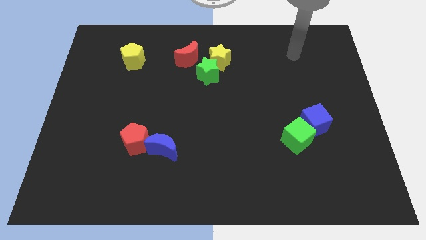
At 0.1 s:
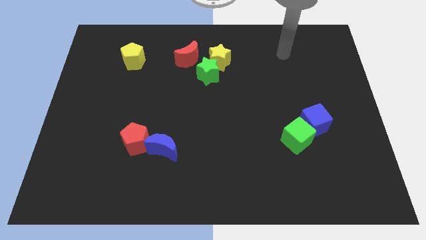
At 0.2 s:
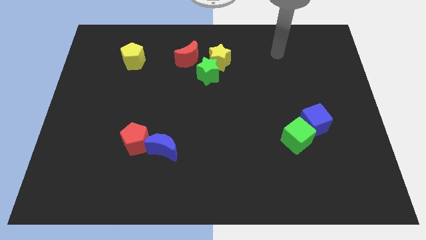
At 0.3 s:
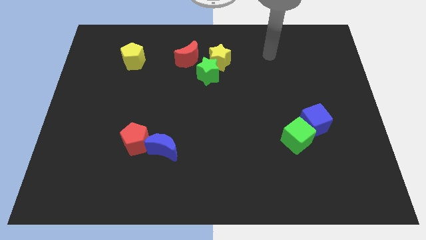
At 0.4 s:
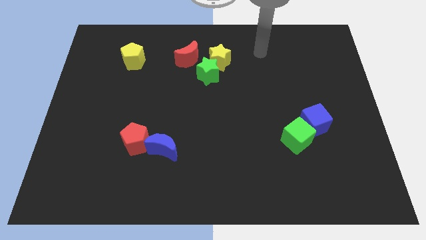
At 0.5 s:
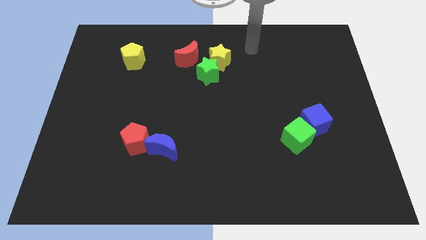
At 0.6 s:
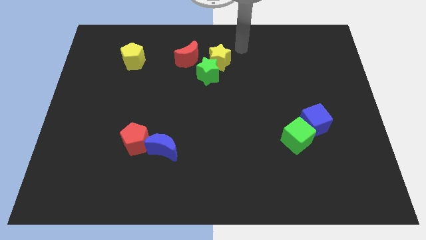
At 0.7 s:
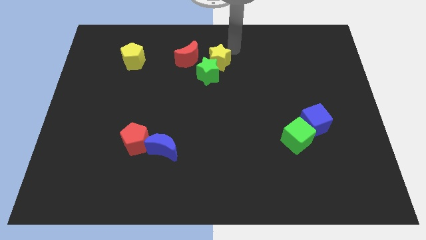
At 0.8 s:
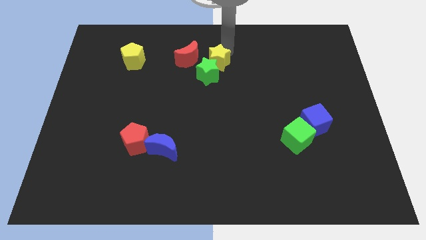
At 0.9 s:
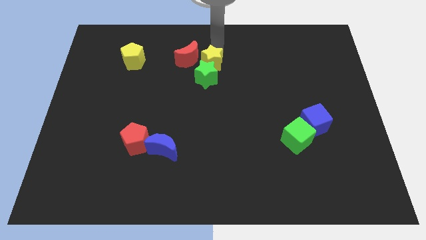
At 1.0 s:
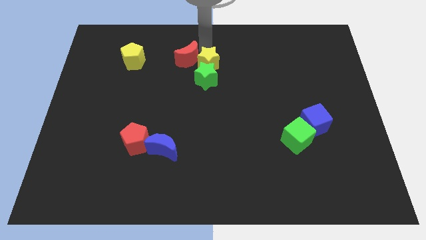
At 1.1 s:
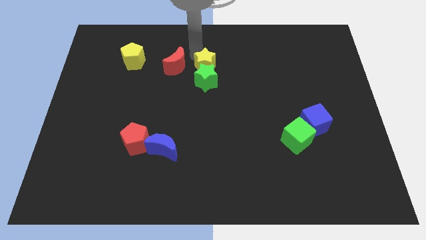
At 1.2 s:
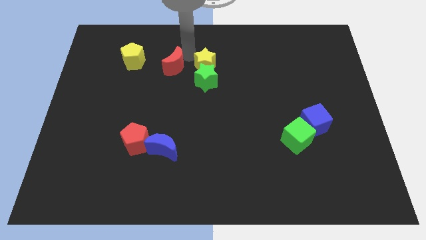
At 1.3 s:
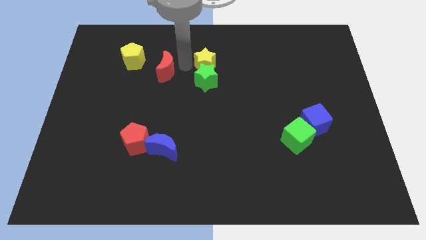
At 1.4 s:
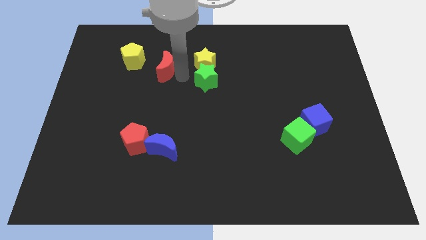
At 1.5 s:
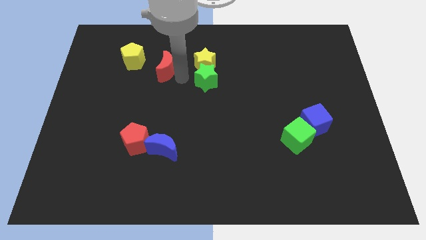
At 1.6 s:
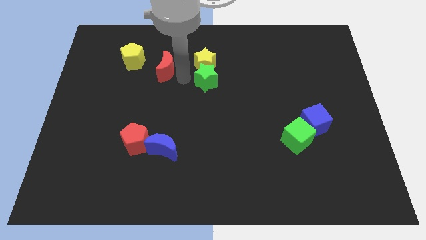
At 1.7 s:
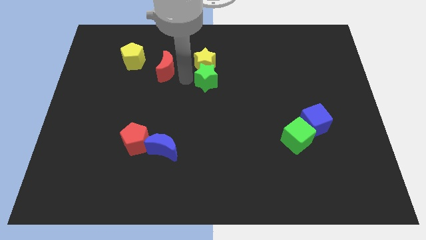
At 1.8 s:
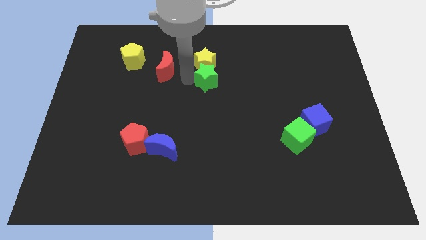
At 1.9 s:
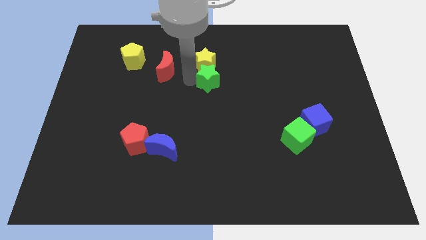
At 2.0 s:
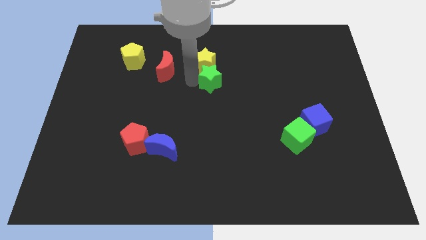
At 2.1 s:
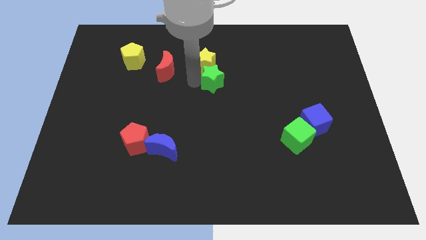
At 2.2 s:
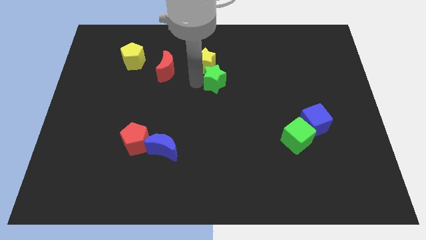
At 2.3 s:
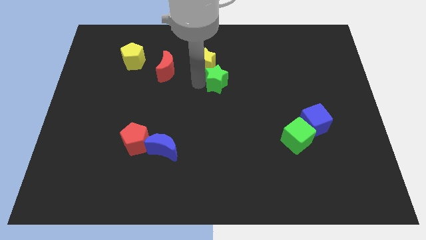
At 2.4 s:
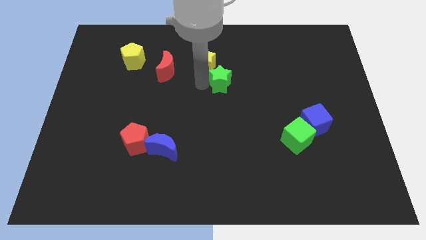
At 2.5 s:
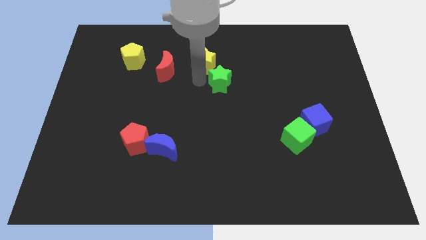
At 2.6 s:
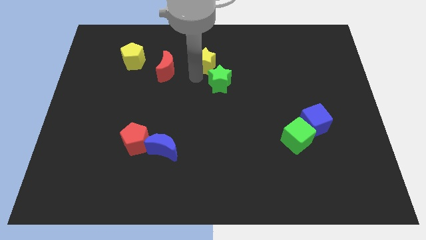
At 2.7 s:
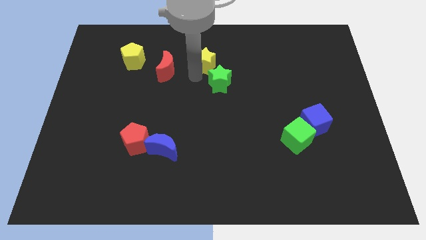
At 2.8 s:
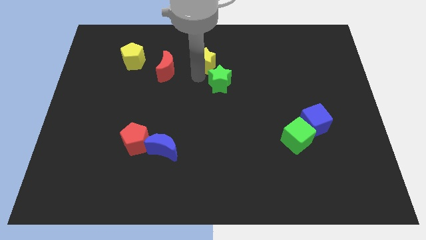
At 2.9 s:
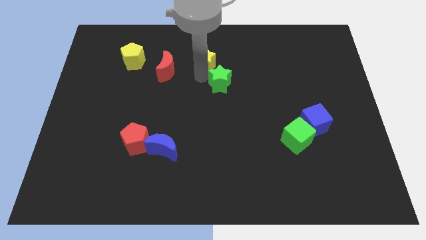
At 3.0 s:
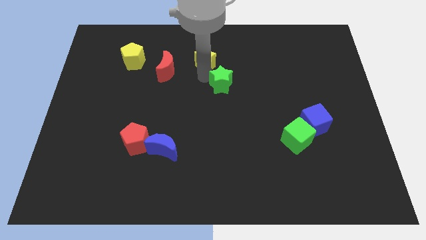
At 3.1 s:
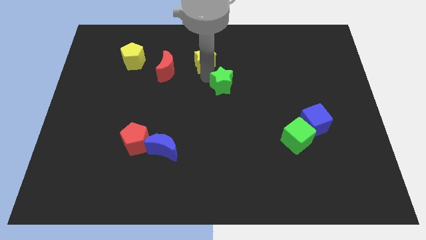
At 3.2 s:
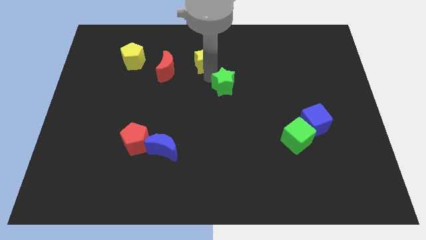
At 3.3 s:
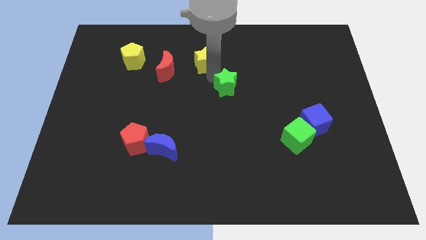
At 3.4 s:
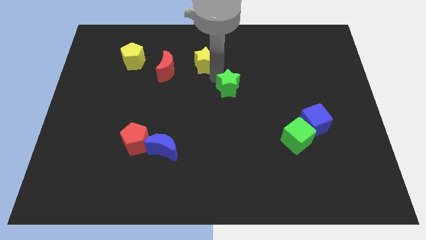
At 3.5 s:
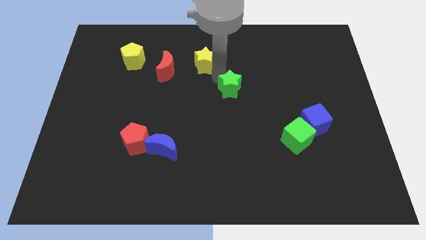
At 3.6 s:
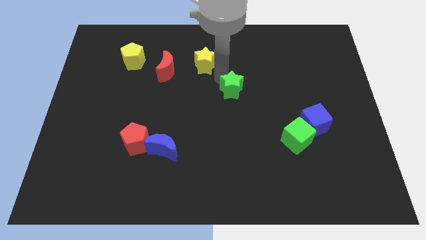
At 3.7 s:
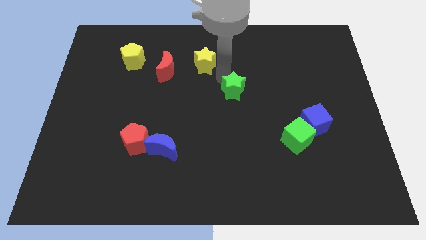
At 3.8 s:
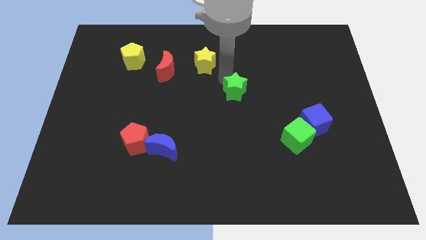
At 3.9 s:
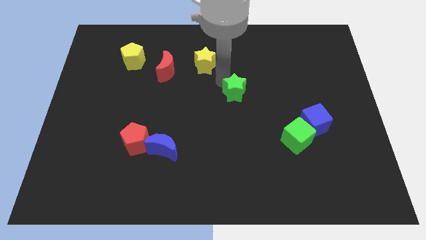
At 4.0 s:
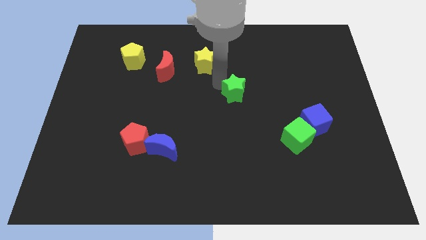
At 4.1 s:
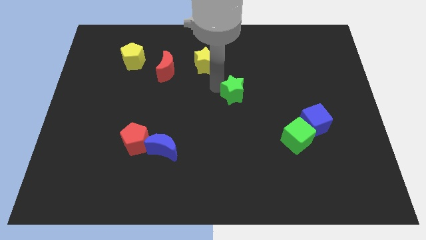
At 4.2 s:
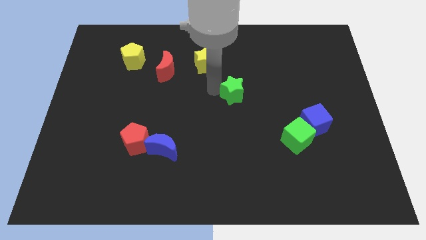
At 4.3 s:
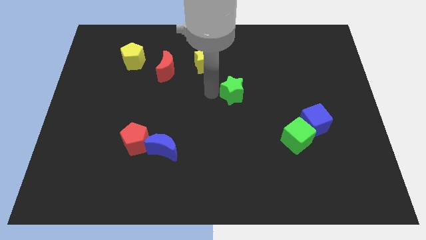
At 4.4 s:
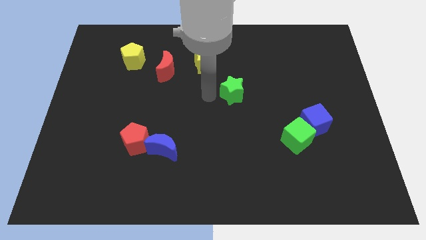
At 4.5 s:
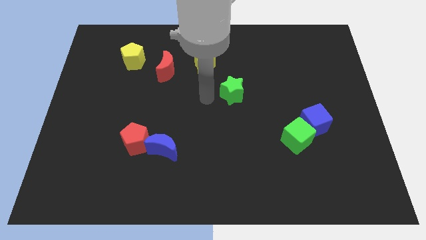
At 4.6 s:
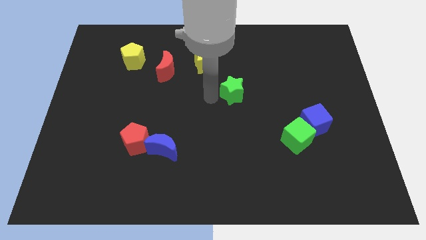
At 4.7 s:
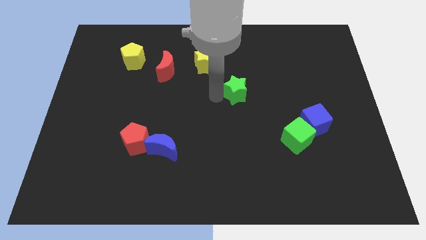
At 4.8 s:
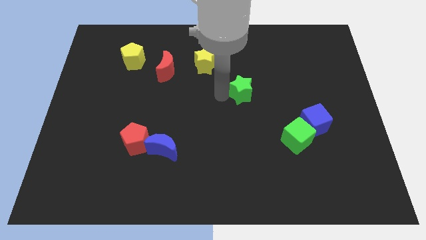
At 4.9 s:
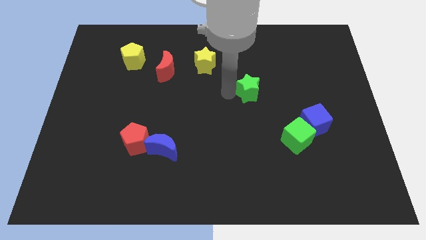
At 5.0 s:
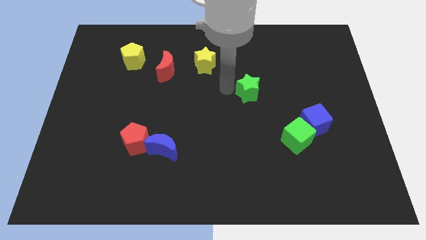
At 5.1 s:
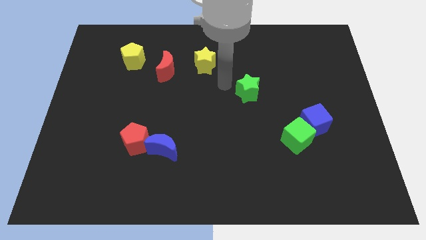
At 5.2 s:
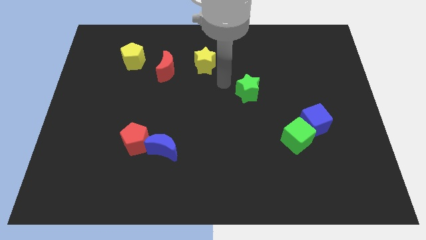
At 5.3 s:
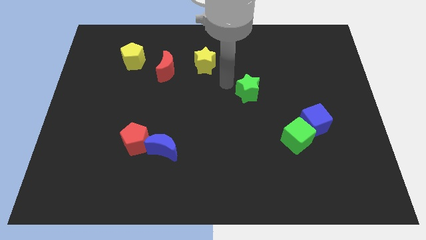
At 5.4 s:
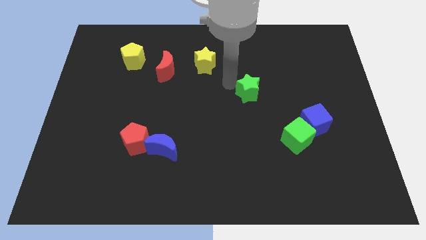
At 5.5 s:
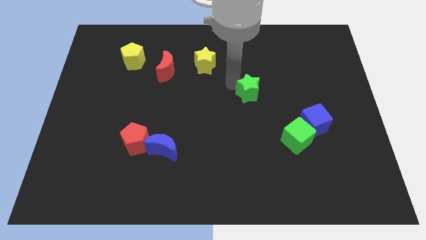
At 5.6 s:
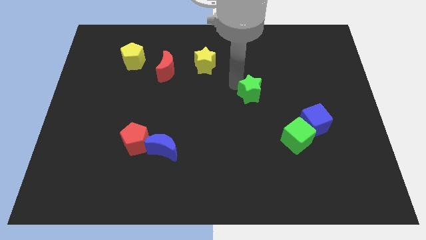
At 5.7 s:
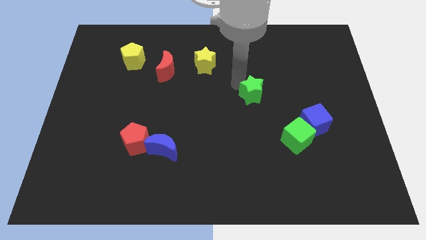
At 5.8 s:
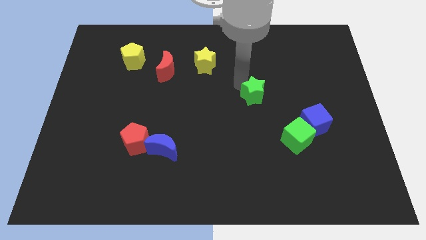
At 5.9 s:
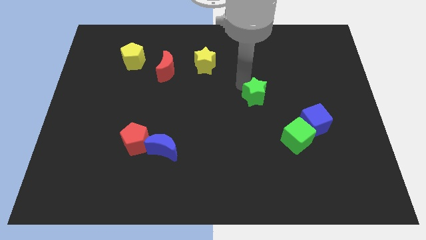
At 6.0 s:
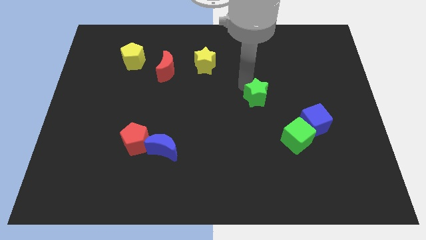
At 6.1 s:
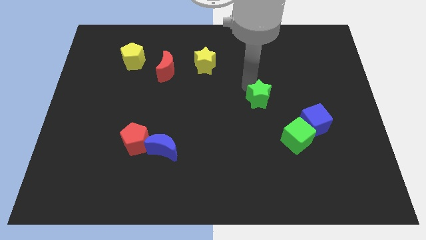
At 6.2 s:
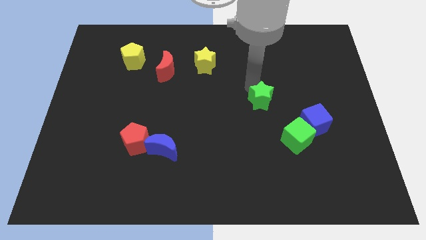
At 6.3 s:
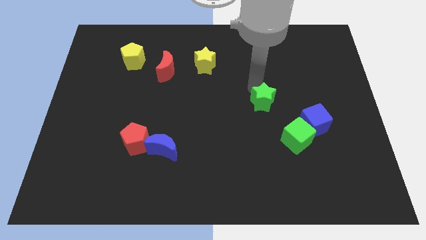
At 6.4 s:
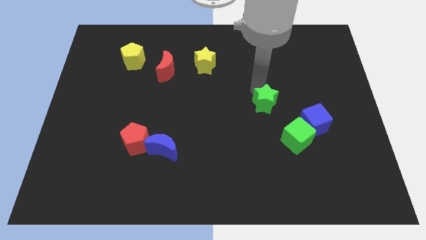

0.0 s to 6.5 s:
move the green star to the top left of the blue cube

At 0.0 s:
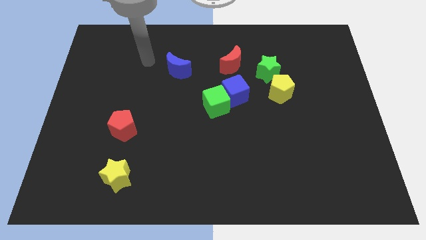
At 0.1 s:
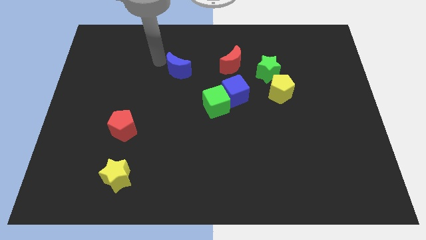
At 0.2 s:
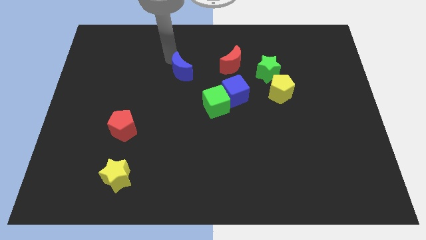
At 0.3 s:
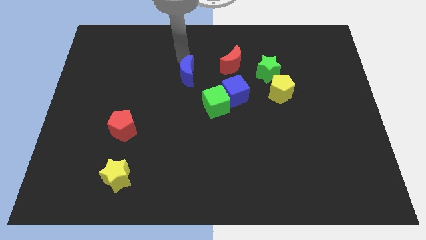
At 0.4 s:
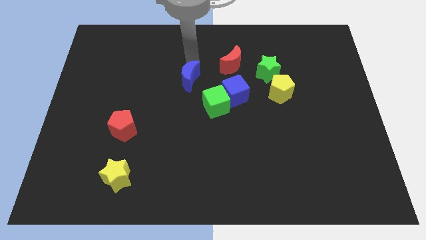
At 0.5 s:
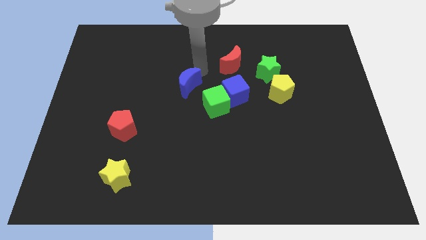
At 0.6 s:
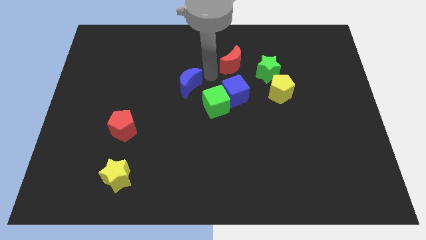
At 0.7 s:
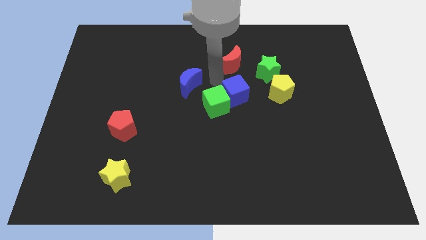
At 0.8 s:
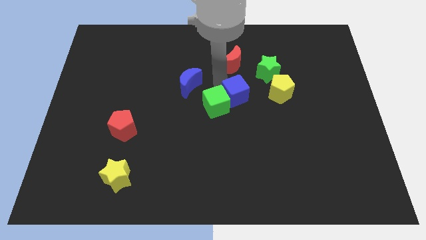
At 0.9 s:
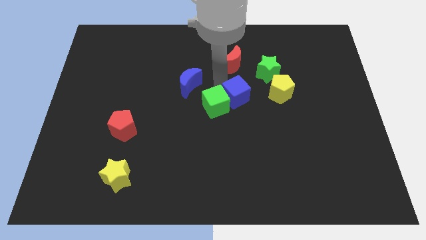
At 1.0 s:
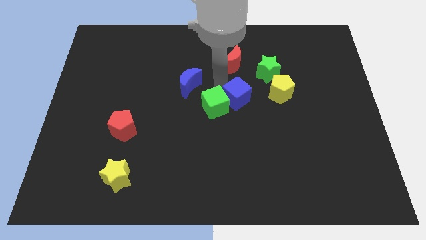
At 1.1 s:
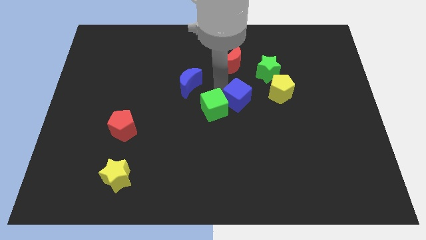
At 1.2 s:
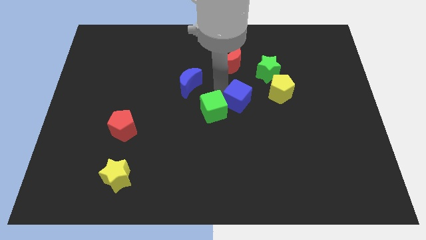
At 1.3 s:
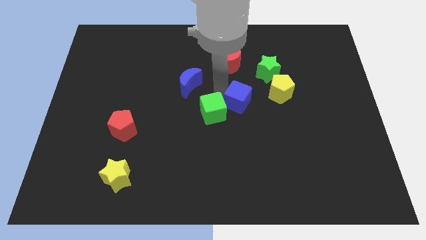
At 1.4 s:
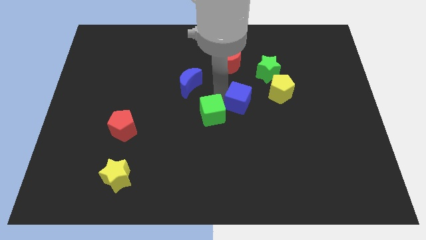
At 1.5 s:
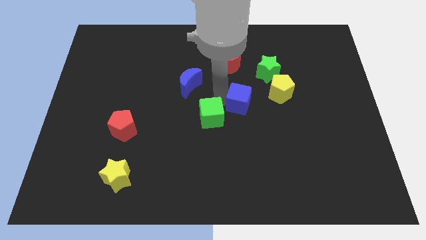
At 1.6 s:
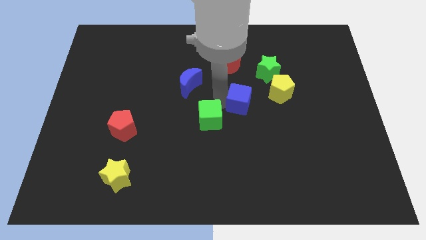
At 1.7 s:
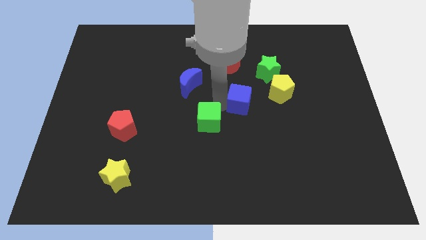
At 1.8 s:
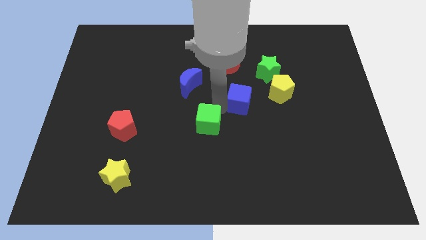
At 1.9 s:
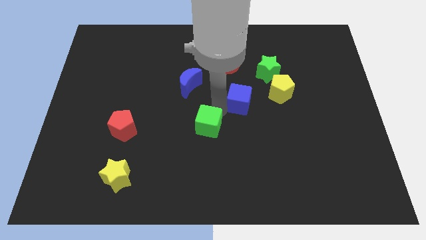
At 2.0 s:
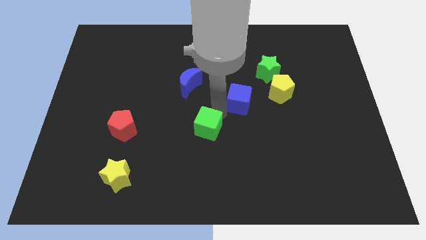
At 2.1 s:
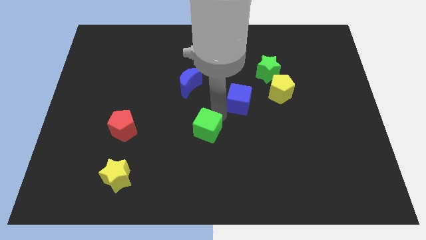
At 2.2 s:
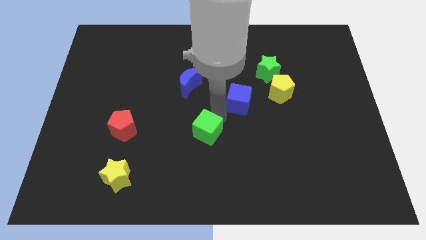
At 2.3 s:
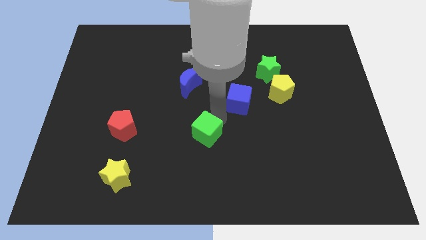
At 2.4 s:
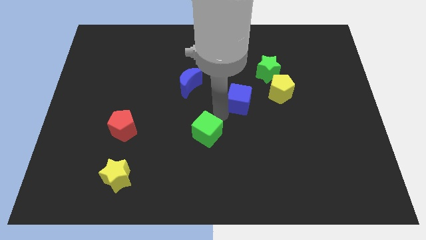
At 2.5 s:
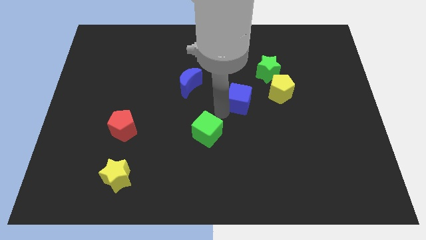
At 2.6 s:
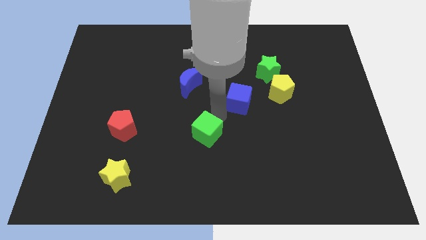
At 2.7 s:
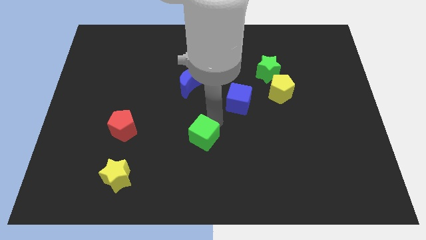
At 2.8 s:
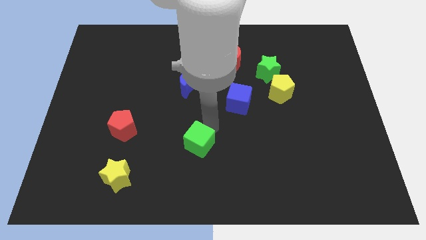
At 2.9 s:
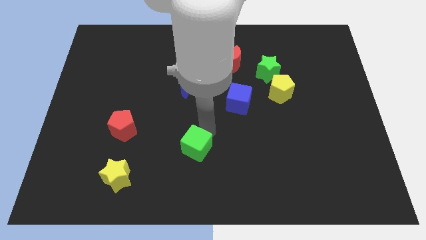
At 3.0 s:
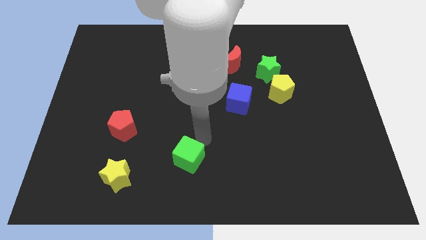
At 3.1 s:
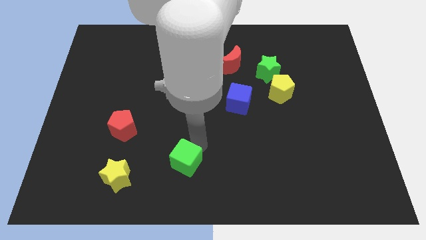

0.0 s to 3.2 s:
push the green cube right of the yellow star
